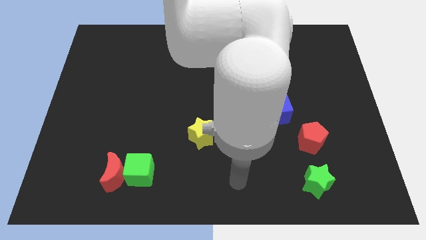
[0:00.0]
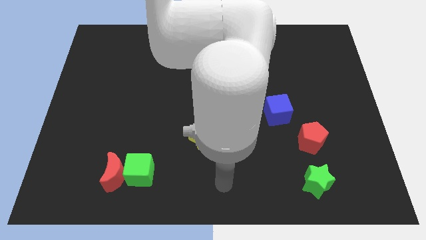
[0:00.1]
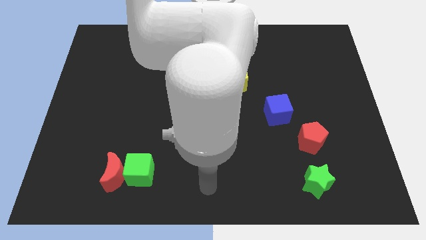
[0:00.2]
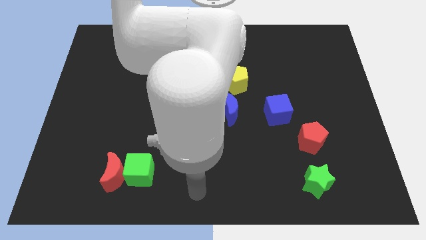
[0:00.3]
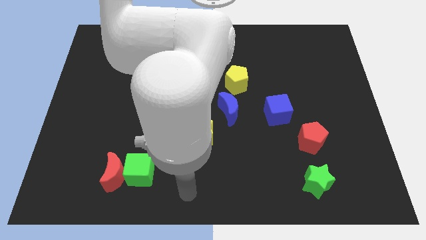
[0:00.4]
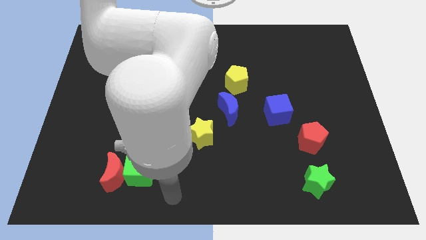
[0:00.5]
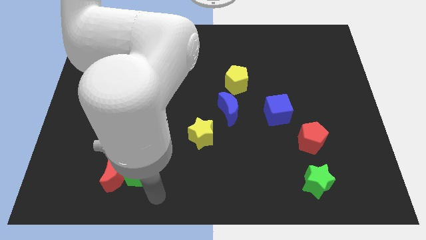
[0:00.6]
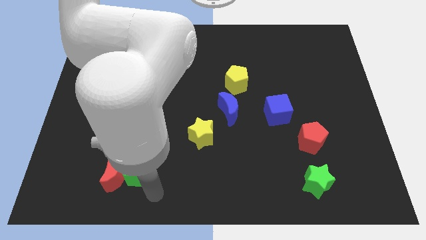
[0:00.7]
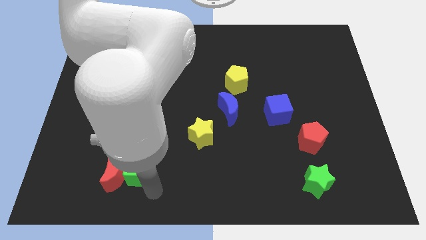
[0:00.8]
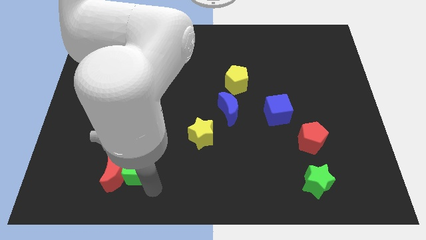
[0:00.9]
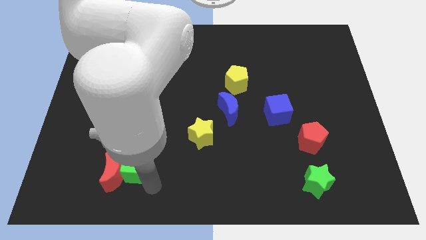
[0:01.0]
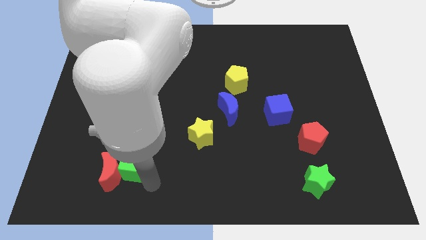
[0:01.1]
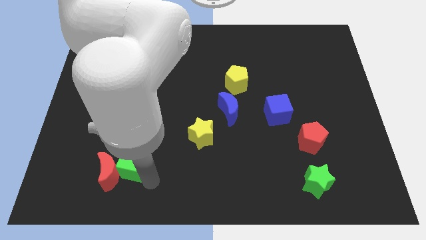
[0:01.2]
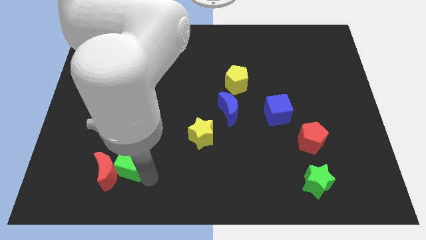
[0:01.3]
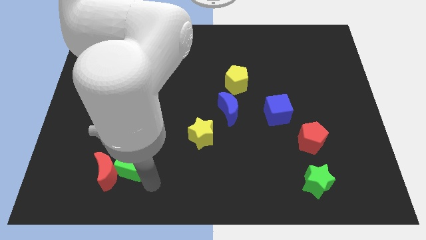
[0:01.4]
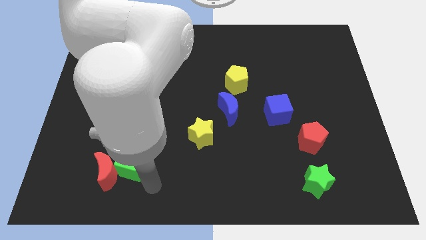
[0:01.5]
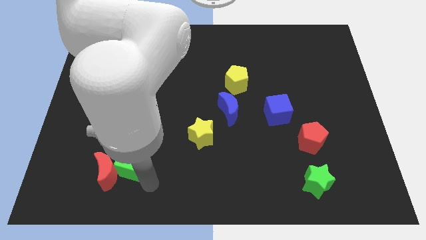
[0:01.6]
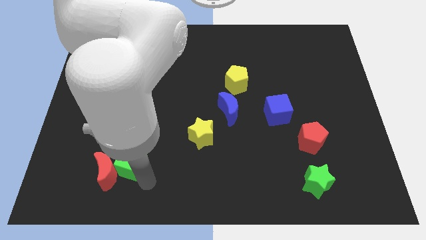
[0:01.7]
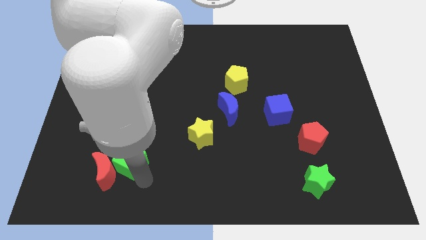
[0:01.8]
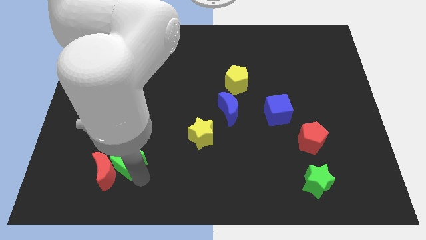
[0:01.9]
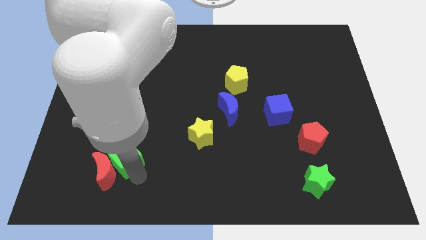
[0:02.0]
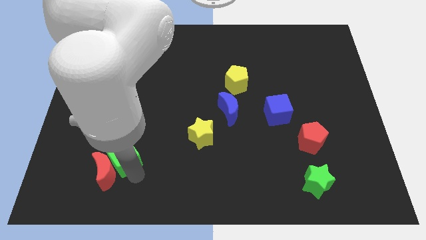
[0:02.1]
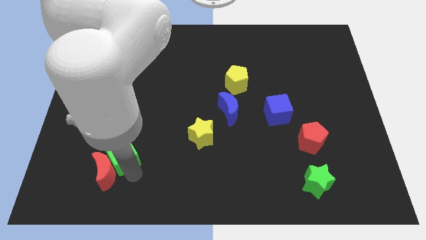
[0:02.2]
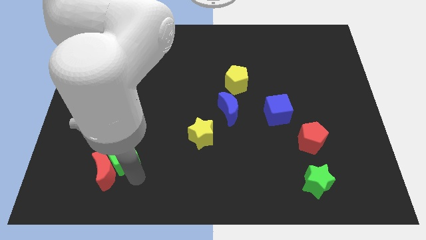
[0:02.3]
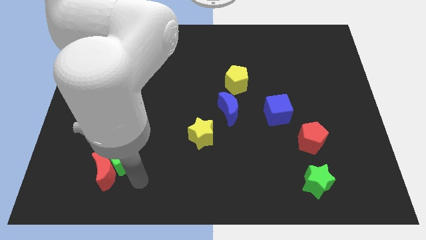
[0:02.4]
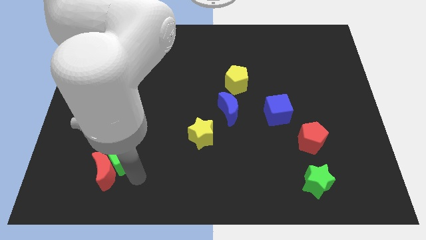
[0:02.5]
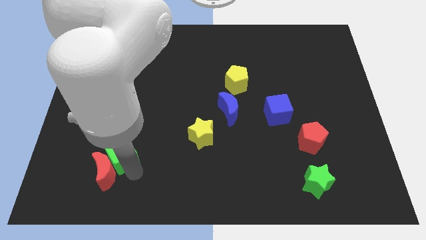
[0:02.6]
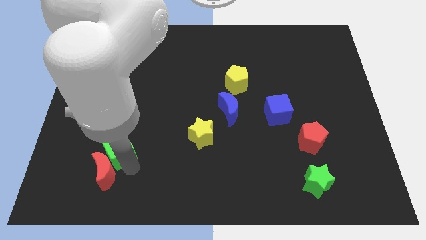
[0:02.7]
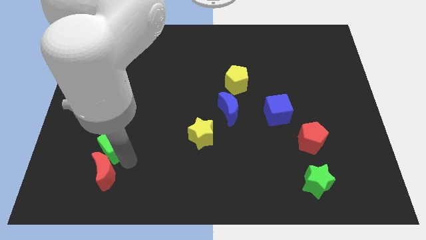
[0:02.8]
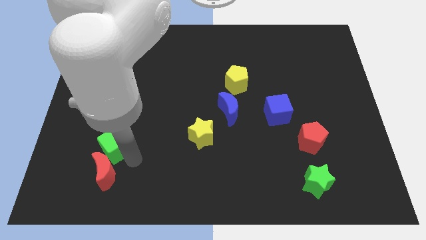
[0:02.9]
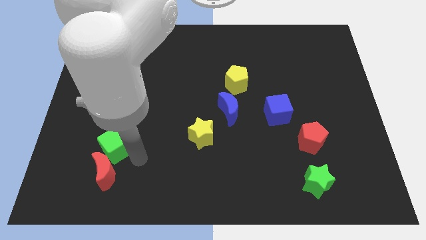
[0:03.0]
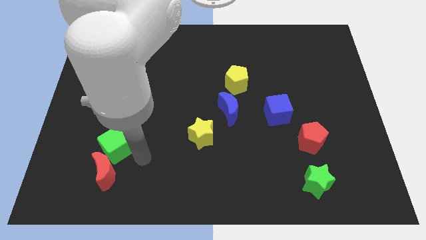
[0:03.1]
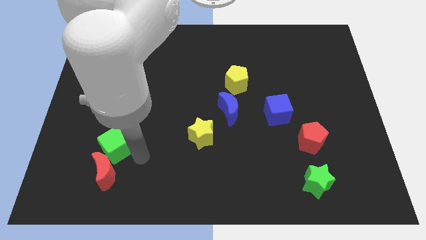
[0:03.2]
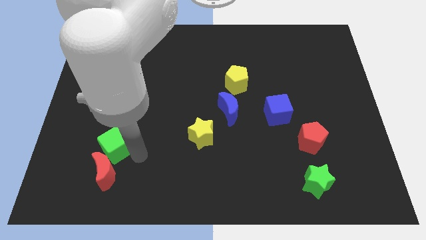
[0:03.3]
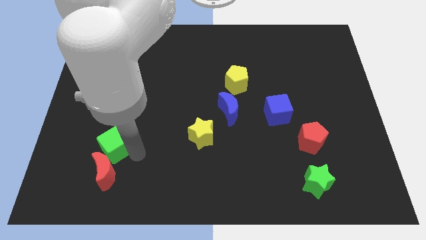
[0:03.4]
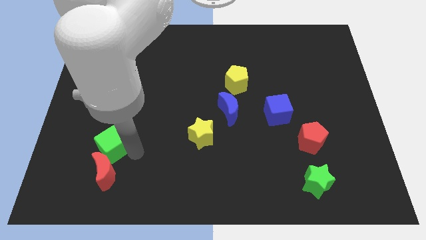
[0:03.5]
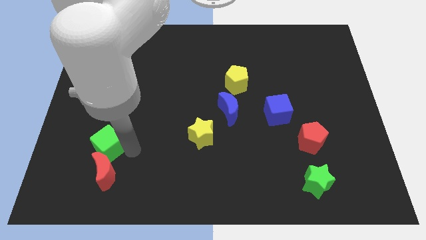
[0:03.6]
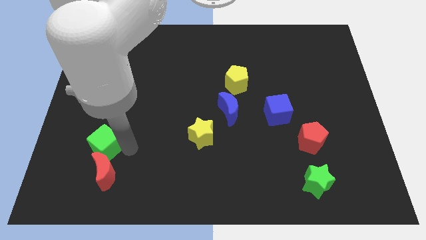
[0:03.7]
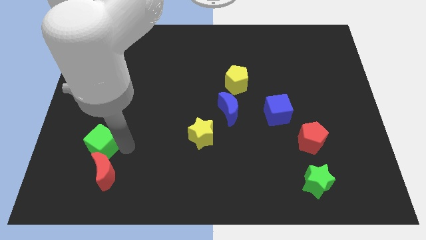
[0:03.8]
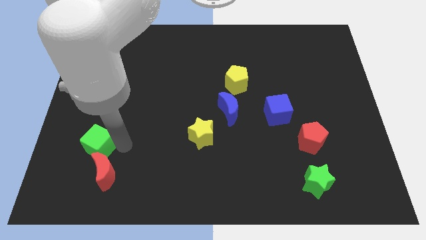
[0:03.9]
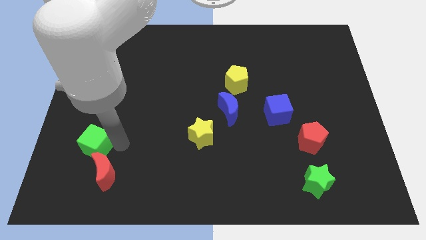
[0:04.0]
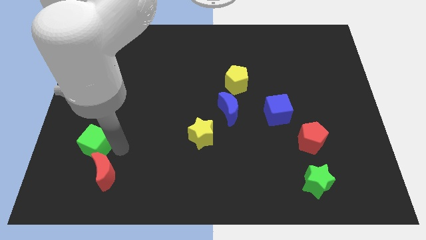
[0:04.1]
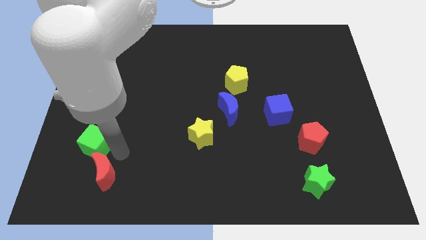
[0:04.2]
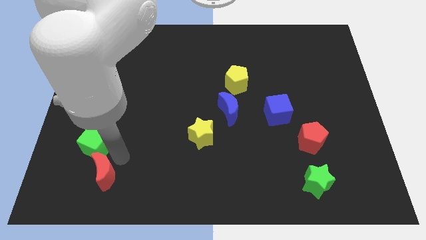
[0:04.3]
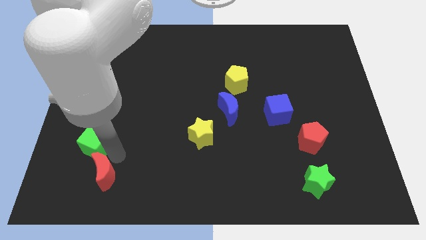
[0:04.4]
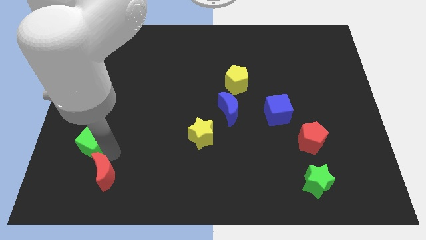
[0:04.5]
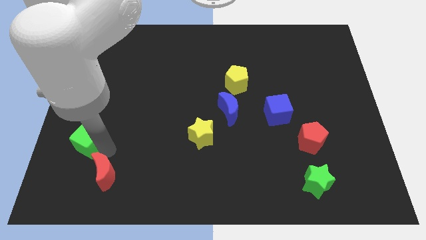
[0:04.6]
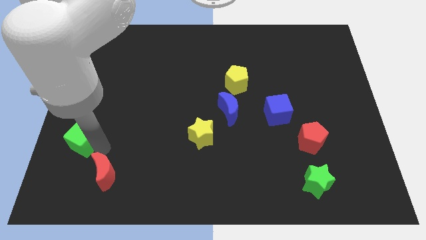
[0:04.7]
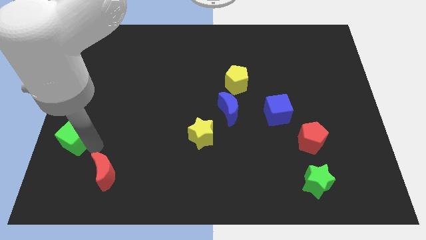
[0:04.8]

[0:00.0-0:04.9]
put the green cube to the left side
